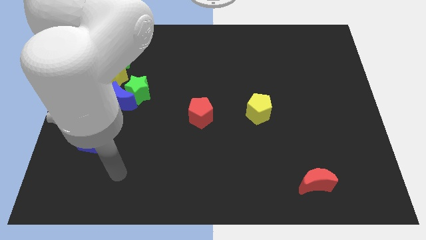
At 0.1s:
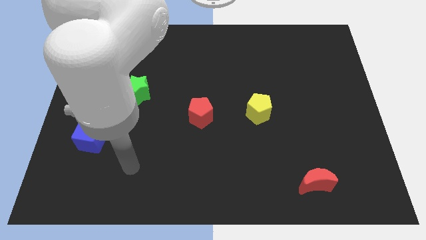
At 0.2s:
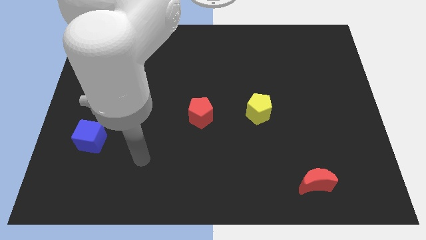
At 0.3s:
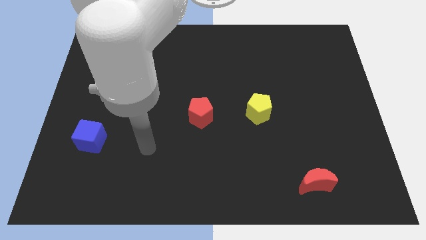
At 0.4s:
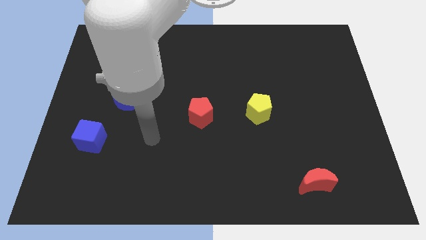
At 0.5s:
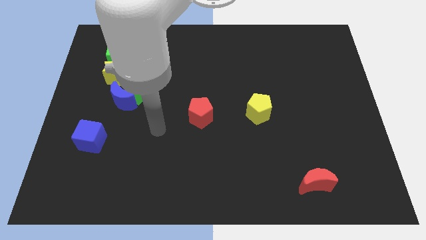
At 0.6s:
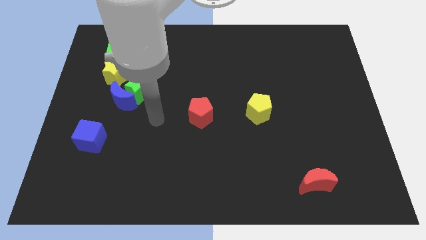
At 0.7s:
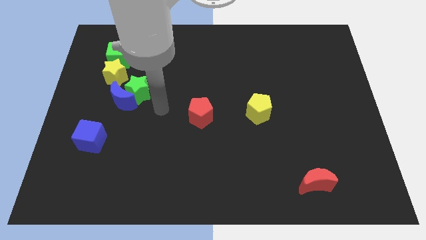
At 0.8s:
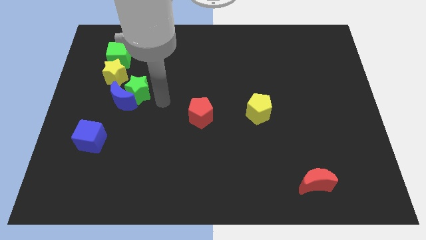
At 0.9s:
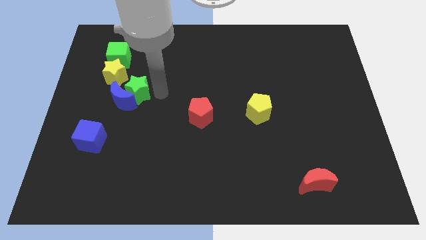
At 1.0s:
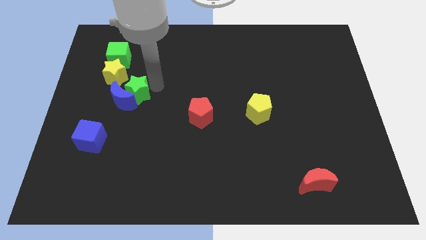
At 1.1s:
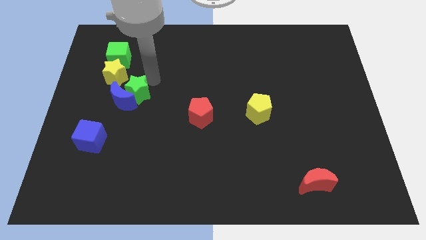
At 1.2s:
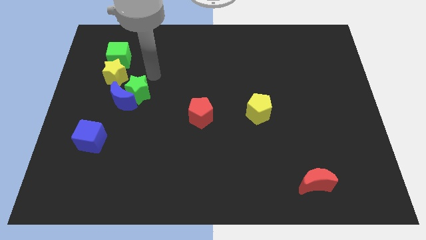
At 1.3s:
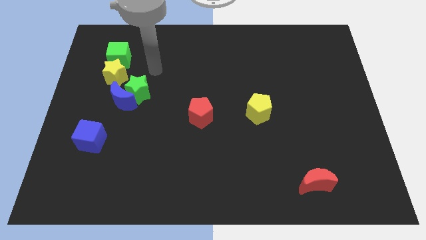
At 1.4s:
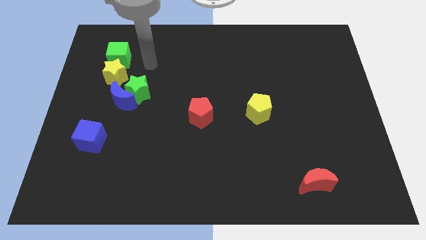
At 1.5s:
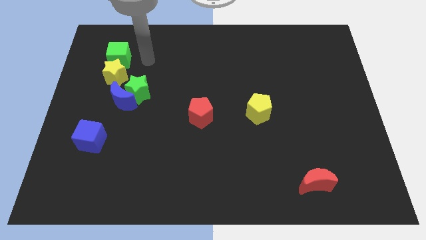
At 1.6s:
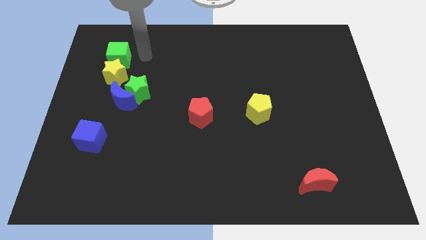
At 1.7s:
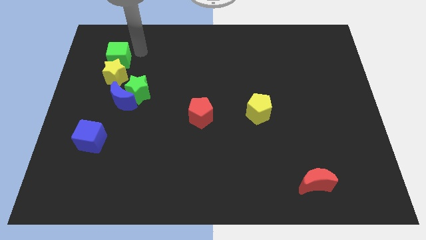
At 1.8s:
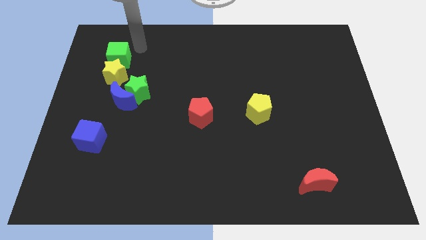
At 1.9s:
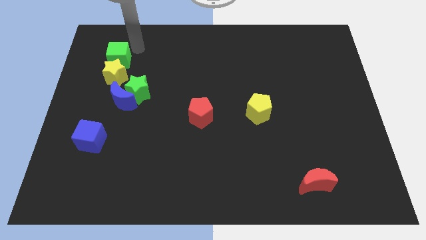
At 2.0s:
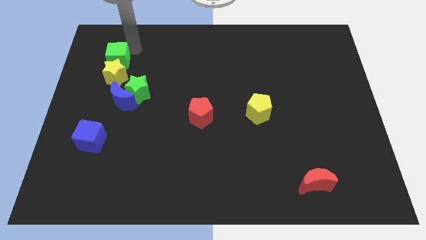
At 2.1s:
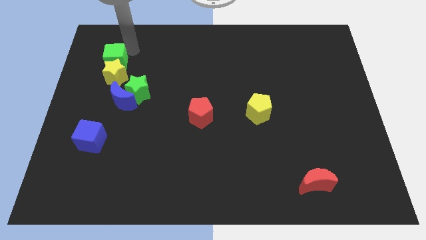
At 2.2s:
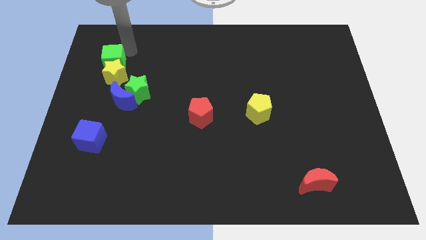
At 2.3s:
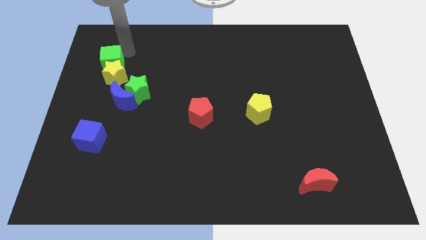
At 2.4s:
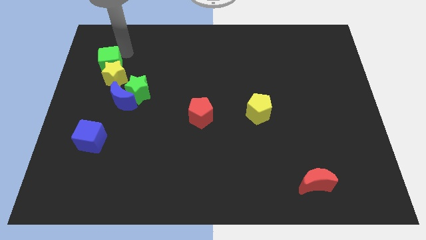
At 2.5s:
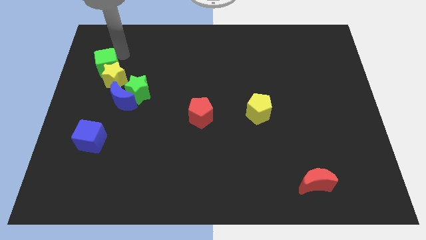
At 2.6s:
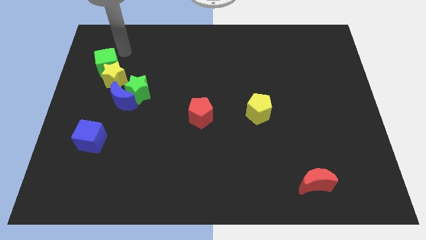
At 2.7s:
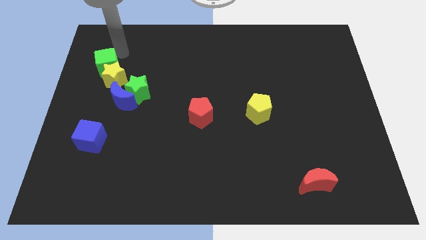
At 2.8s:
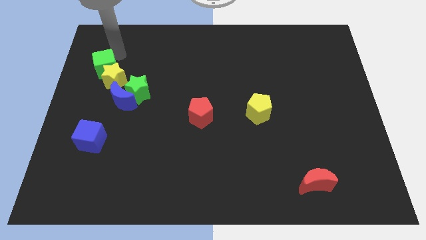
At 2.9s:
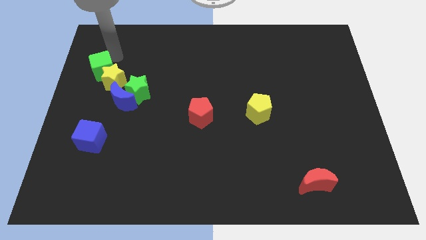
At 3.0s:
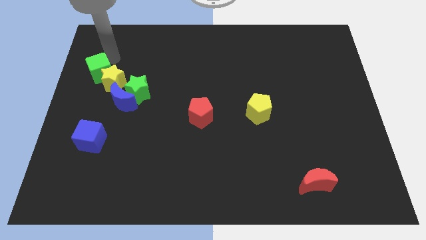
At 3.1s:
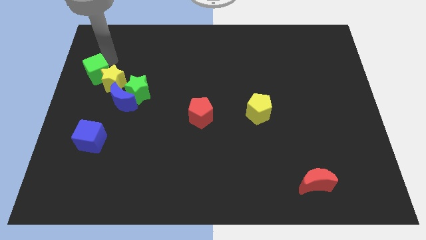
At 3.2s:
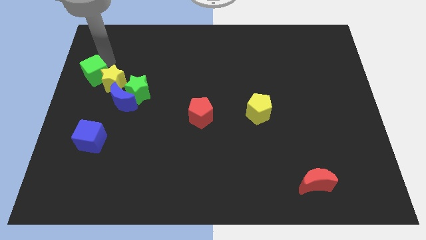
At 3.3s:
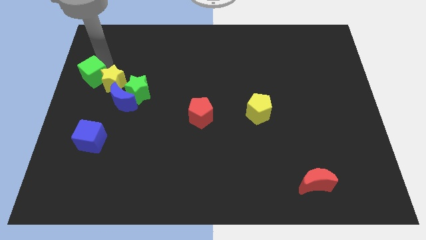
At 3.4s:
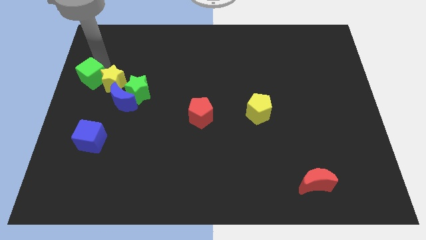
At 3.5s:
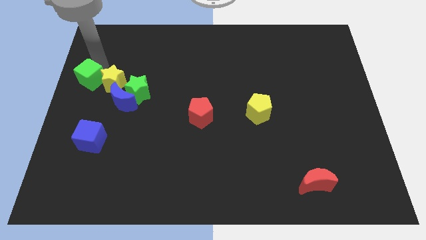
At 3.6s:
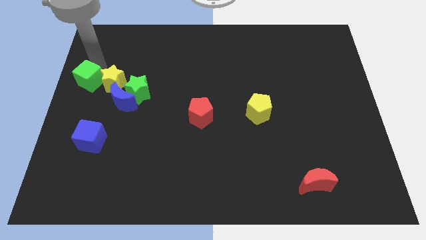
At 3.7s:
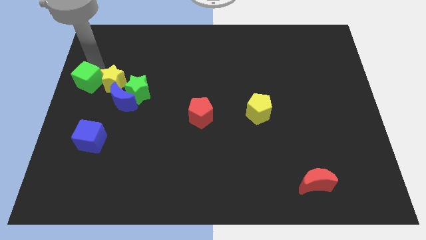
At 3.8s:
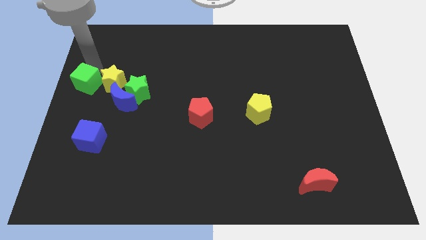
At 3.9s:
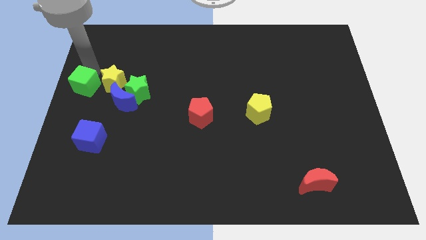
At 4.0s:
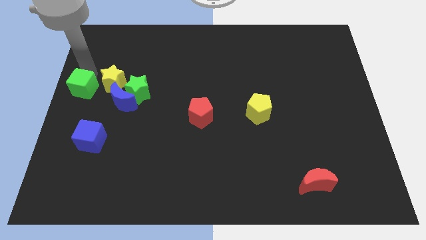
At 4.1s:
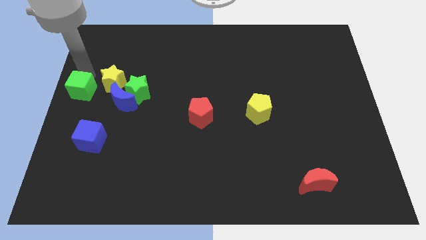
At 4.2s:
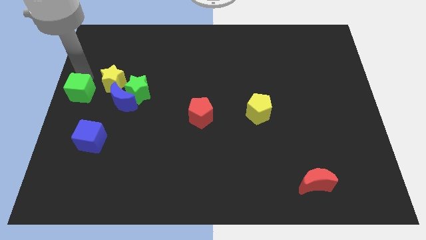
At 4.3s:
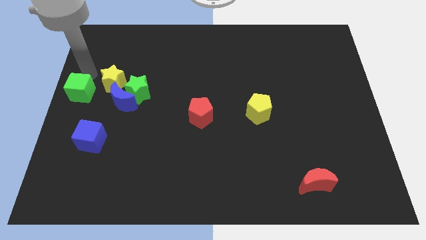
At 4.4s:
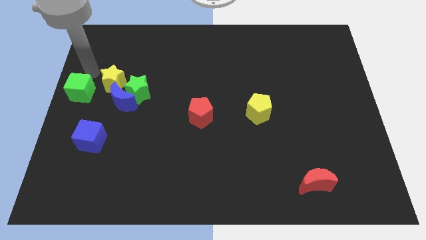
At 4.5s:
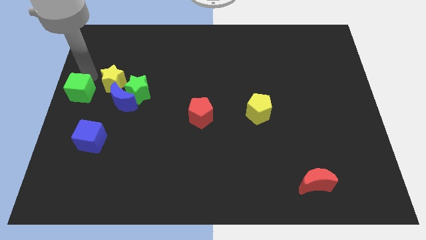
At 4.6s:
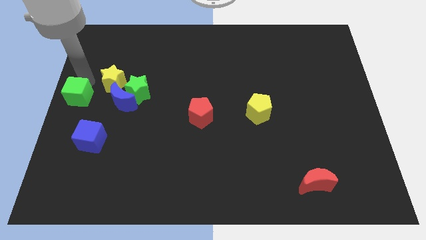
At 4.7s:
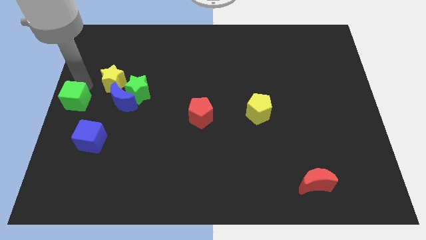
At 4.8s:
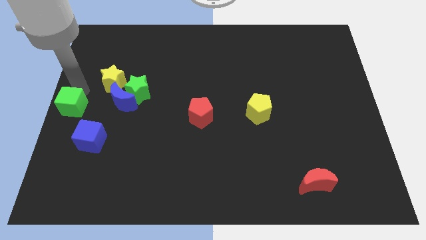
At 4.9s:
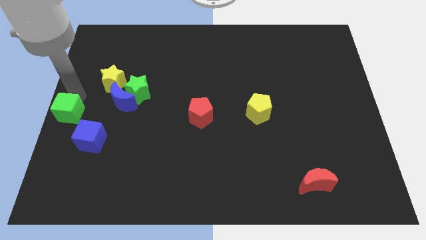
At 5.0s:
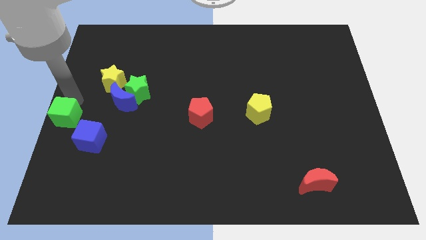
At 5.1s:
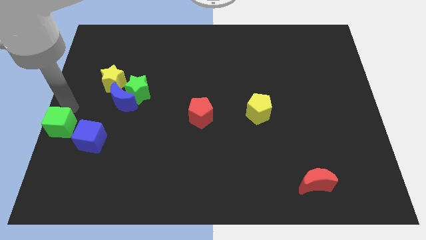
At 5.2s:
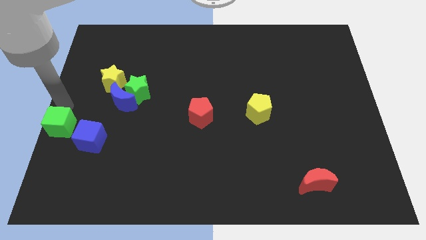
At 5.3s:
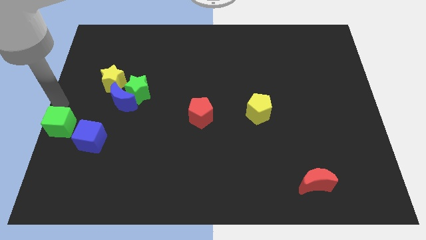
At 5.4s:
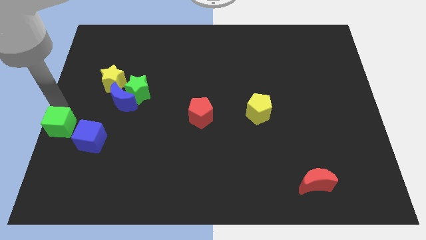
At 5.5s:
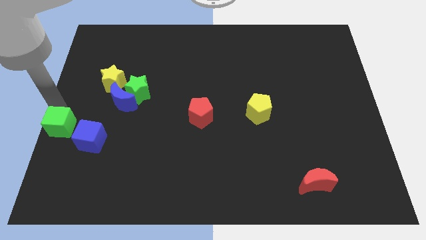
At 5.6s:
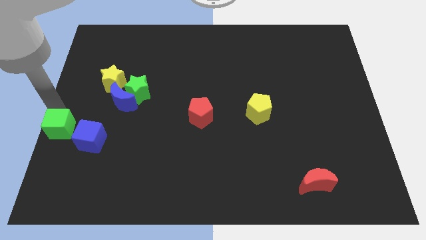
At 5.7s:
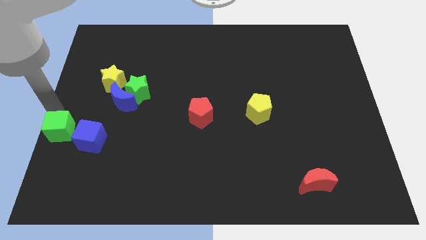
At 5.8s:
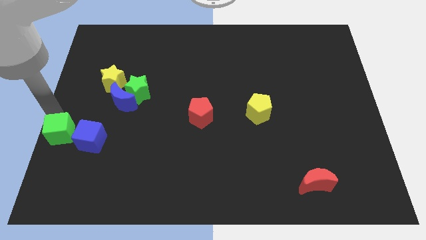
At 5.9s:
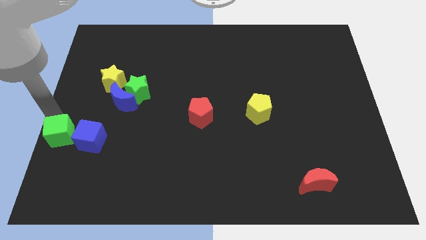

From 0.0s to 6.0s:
push the green cube down

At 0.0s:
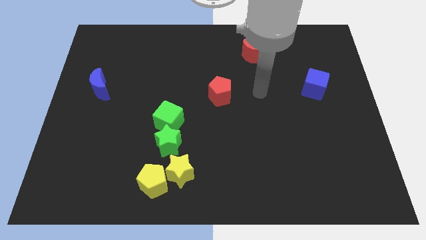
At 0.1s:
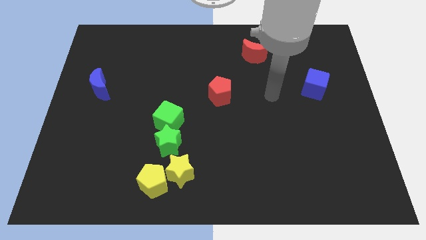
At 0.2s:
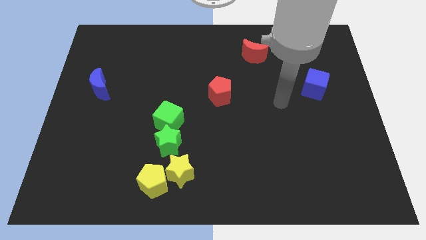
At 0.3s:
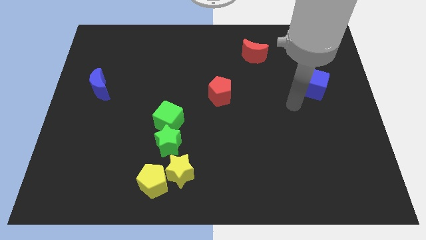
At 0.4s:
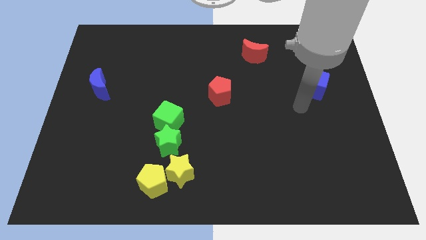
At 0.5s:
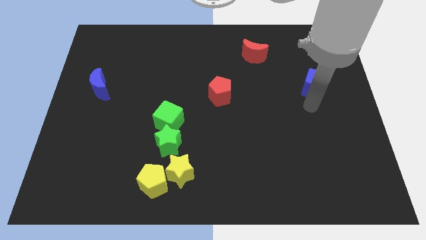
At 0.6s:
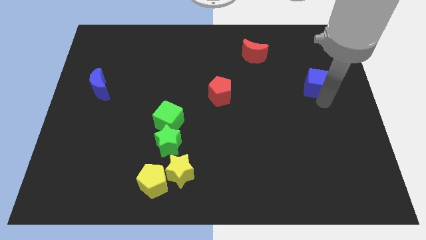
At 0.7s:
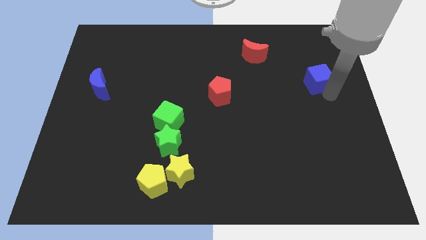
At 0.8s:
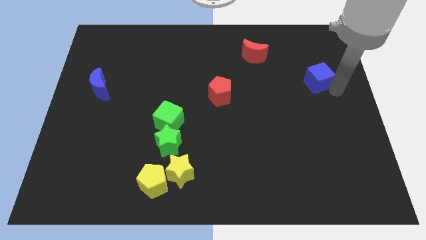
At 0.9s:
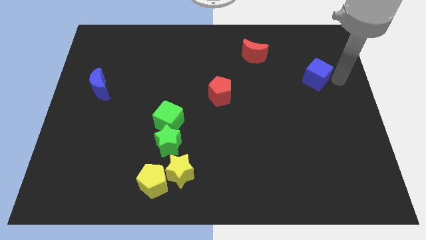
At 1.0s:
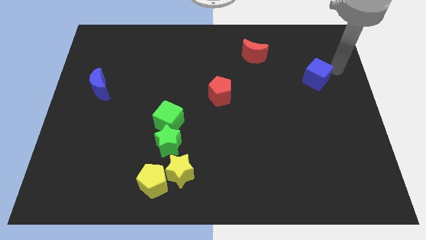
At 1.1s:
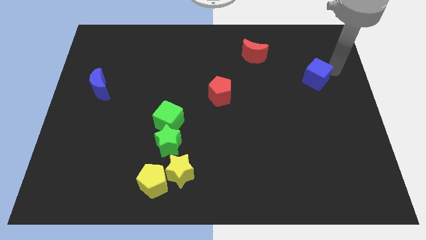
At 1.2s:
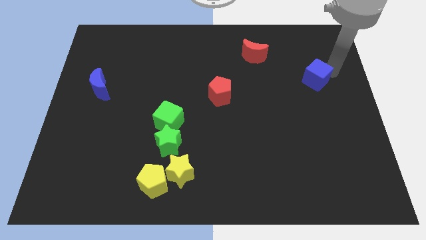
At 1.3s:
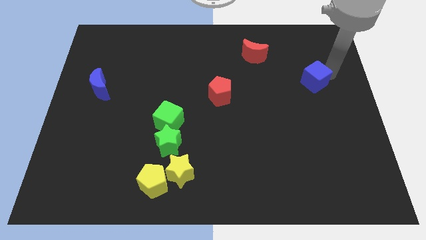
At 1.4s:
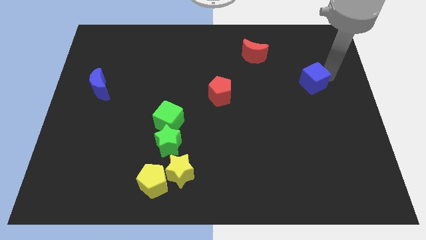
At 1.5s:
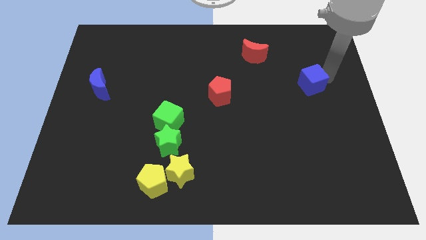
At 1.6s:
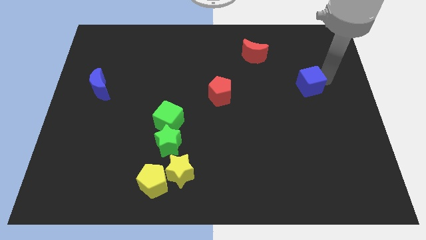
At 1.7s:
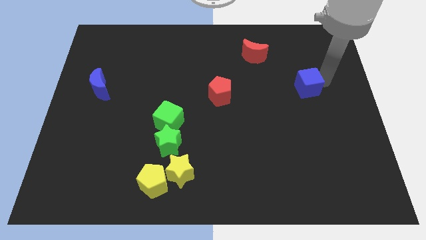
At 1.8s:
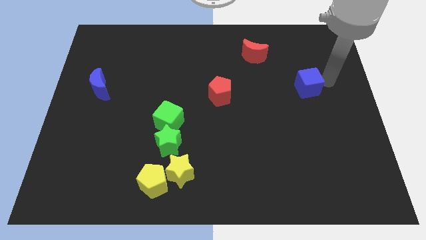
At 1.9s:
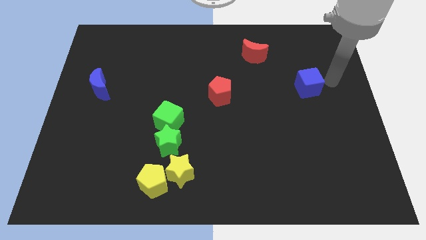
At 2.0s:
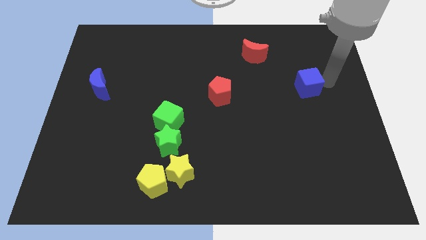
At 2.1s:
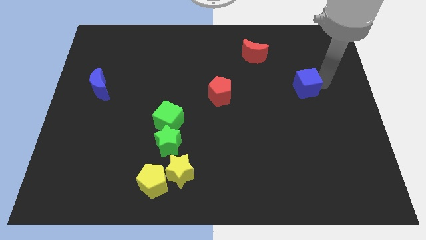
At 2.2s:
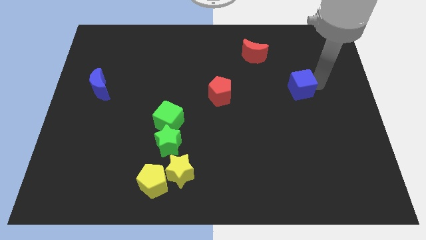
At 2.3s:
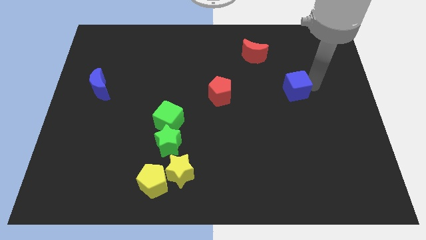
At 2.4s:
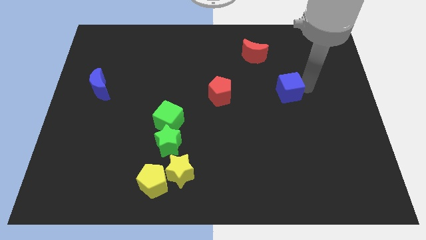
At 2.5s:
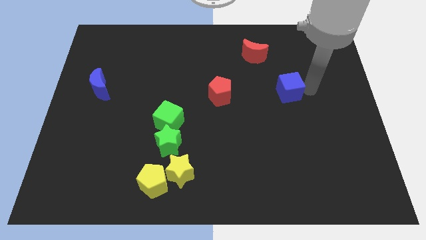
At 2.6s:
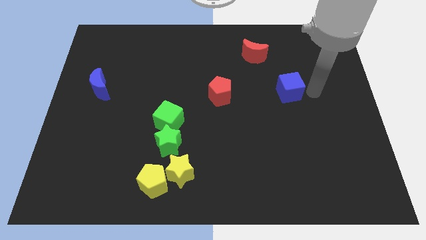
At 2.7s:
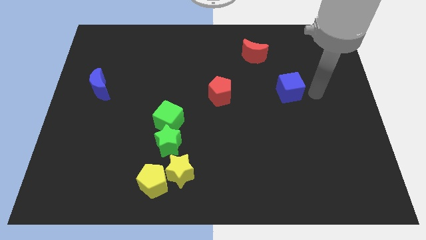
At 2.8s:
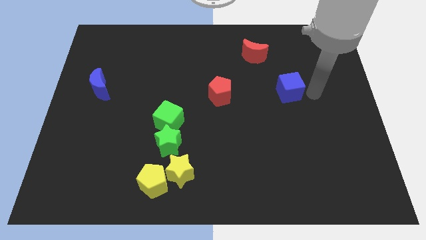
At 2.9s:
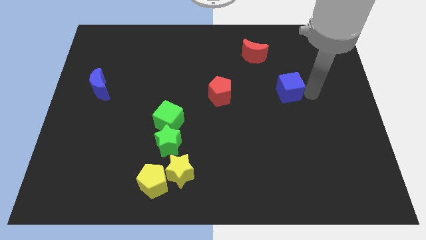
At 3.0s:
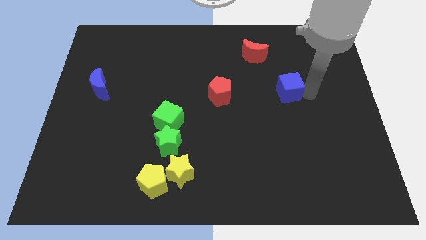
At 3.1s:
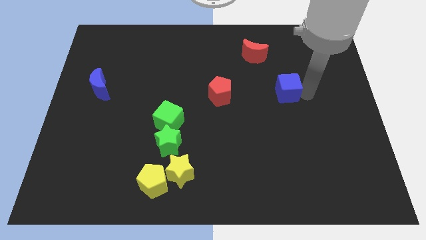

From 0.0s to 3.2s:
slide the blue cube left a bit
